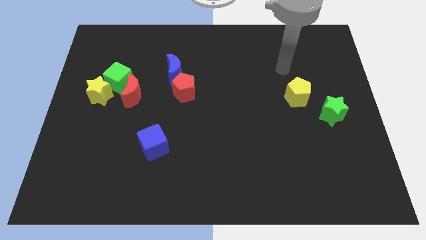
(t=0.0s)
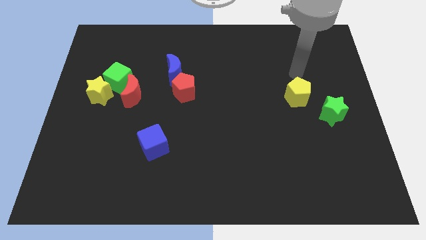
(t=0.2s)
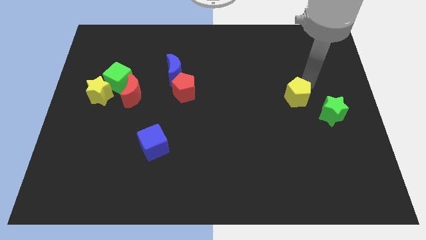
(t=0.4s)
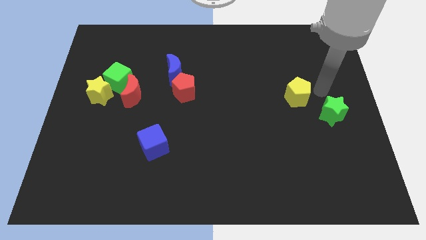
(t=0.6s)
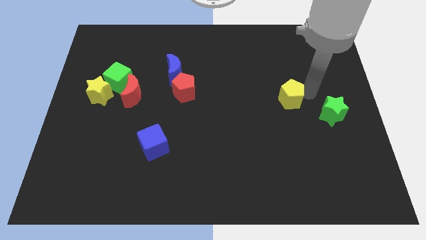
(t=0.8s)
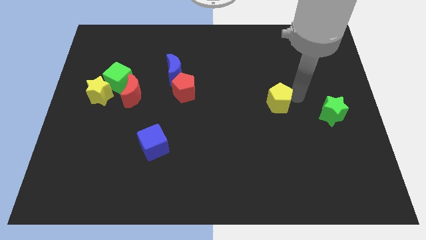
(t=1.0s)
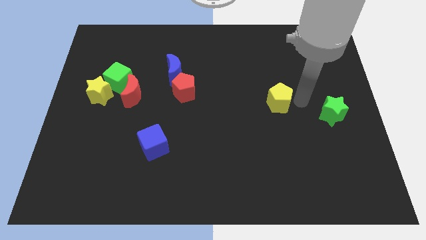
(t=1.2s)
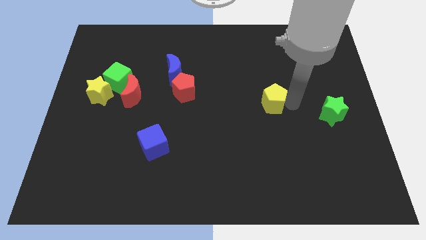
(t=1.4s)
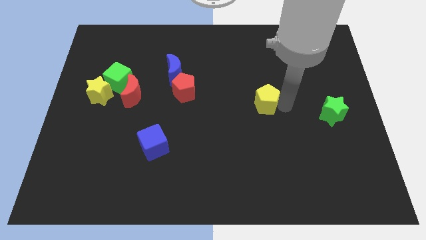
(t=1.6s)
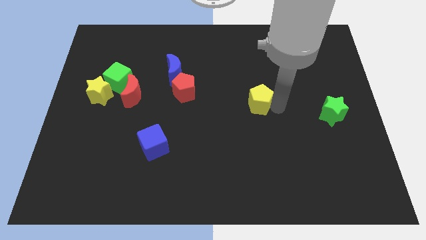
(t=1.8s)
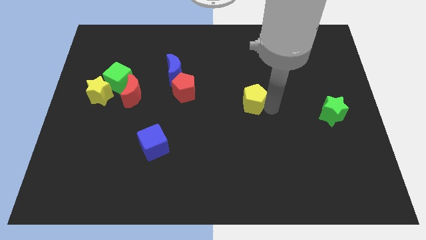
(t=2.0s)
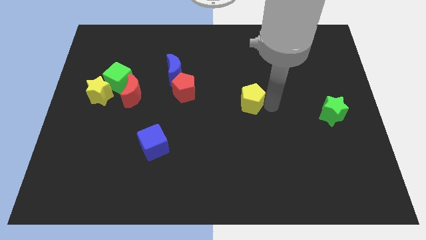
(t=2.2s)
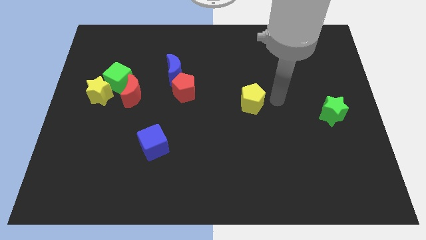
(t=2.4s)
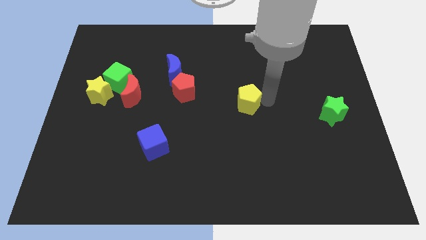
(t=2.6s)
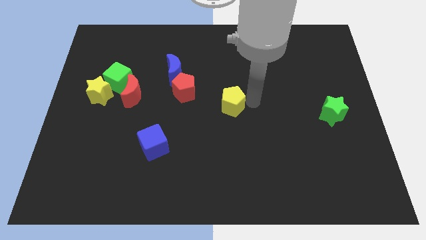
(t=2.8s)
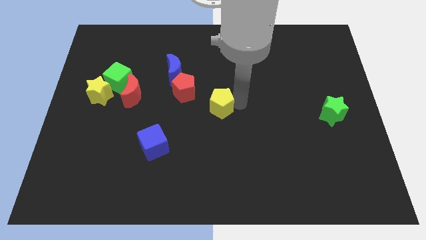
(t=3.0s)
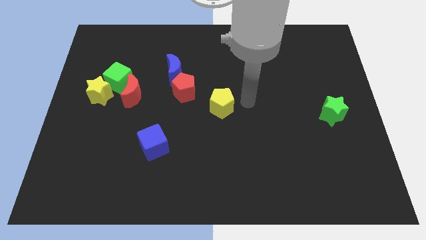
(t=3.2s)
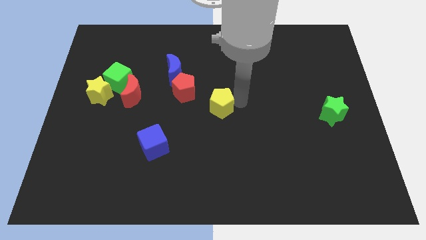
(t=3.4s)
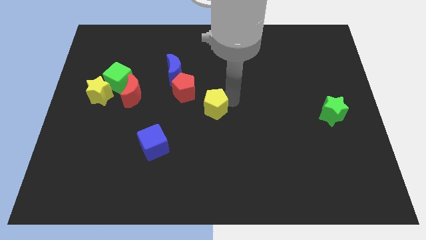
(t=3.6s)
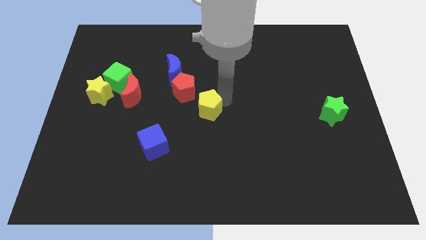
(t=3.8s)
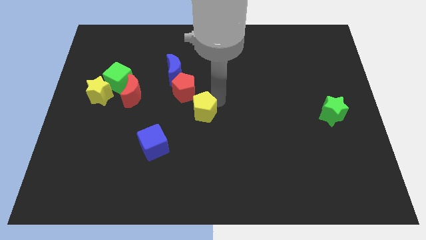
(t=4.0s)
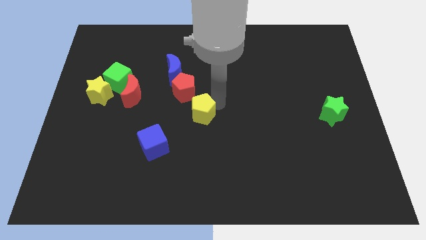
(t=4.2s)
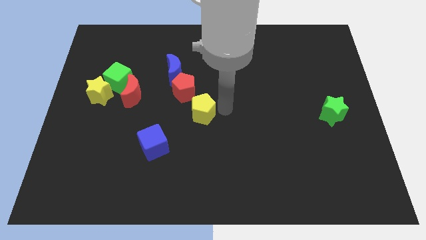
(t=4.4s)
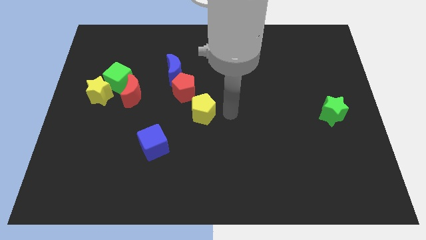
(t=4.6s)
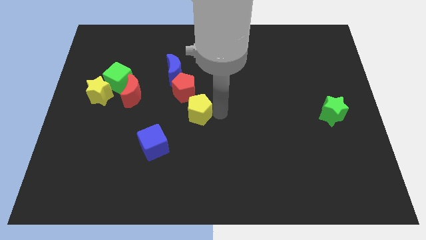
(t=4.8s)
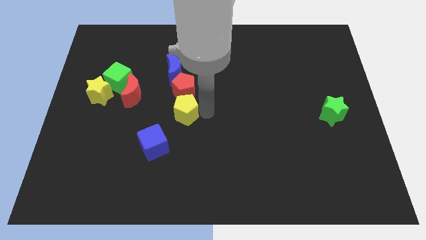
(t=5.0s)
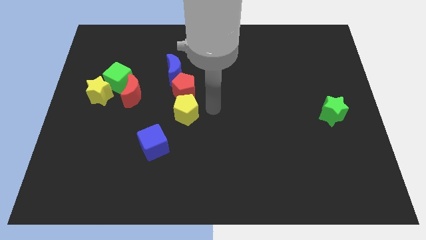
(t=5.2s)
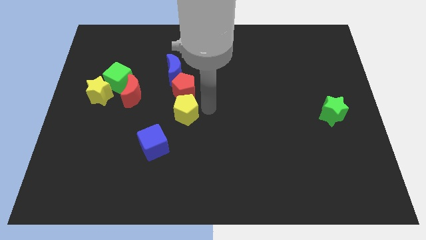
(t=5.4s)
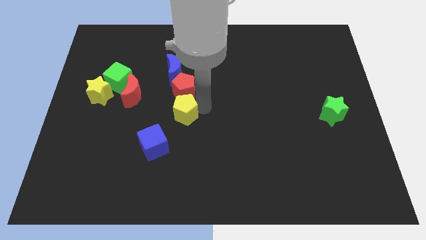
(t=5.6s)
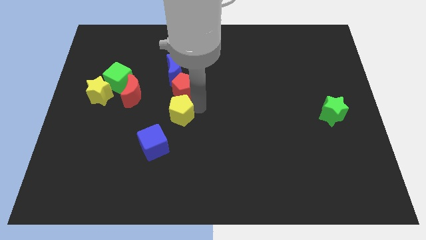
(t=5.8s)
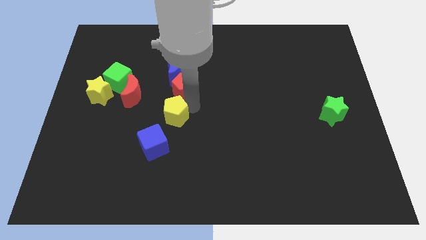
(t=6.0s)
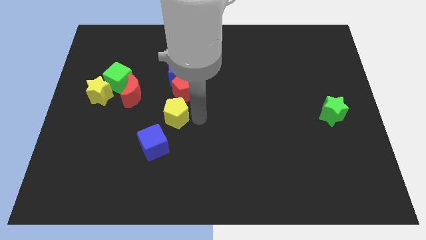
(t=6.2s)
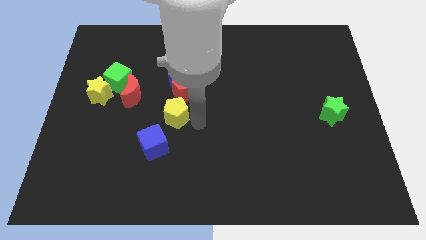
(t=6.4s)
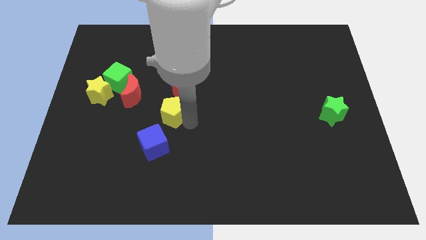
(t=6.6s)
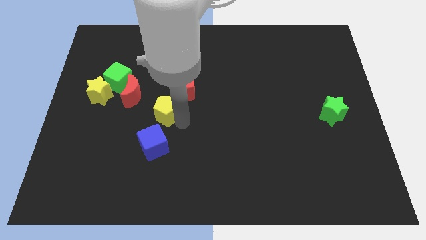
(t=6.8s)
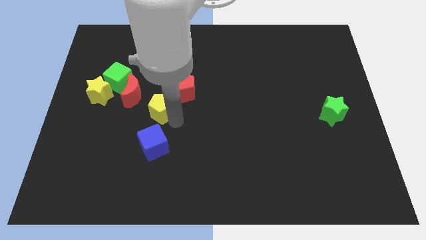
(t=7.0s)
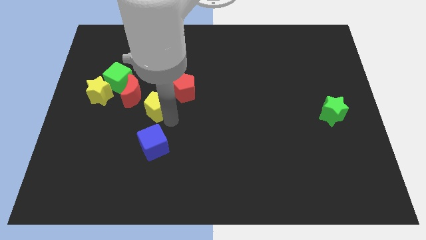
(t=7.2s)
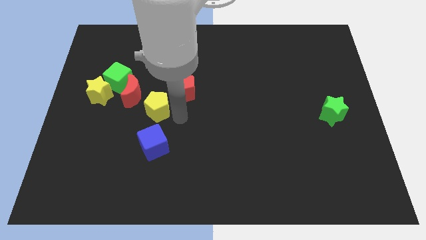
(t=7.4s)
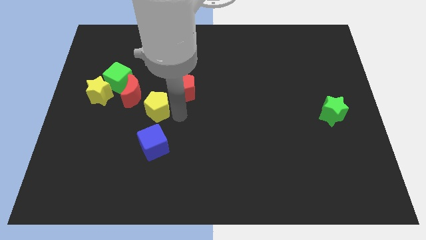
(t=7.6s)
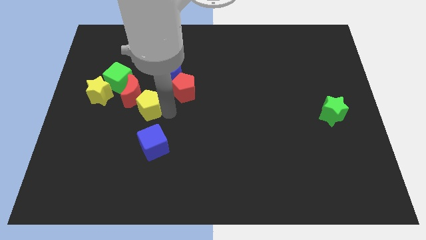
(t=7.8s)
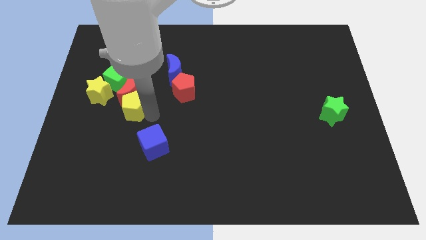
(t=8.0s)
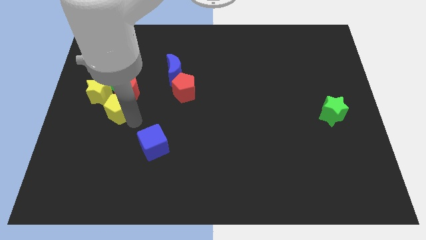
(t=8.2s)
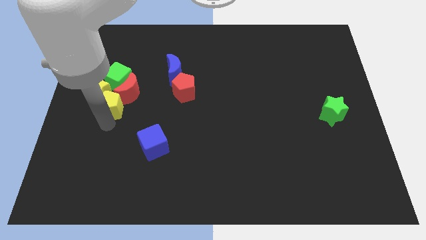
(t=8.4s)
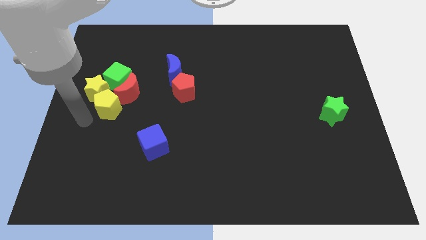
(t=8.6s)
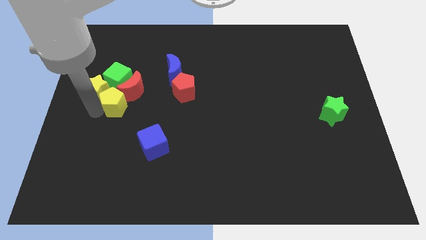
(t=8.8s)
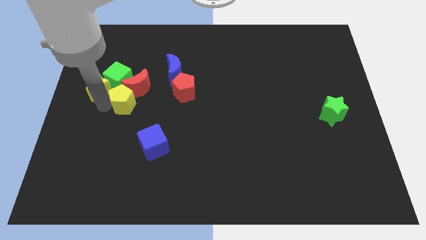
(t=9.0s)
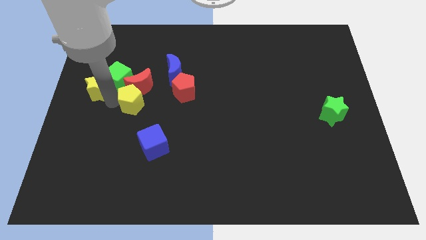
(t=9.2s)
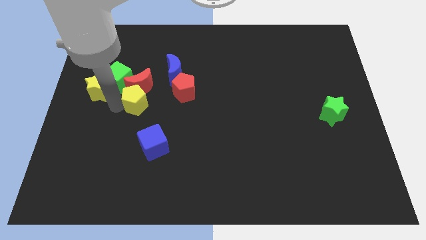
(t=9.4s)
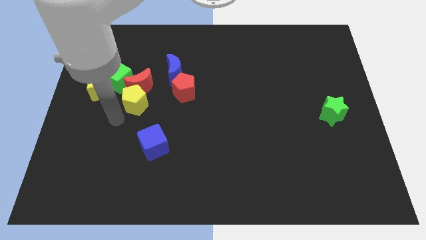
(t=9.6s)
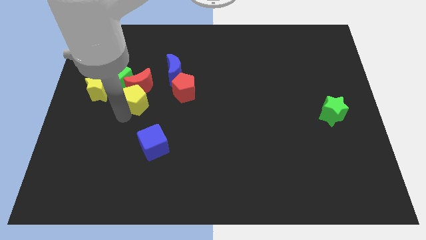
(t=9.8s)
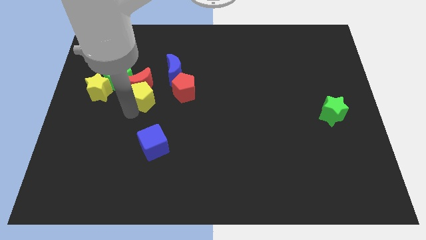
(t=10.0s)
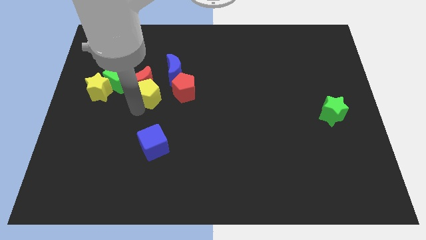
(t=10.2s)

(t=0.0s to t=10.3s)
push the yellow pentagon to the right of the green cube

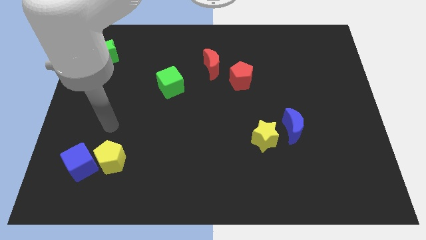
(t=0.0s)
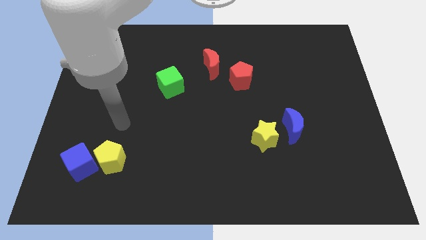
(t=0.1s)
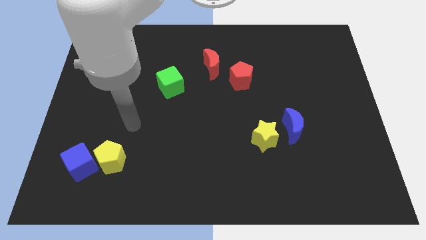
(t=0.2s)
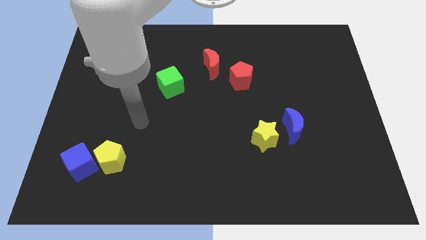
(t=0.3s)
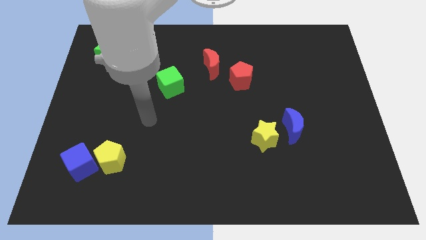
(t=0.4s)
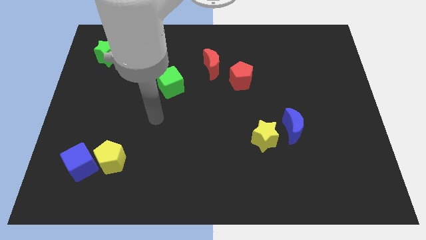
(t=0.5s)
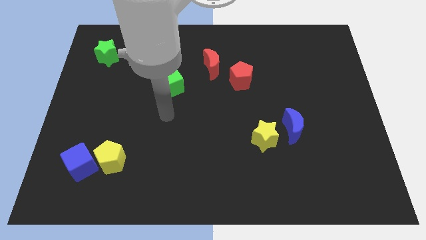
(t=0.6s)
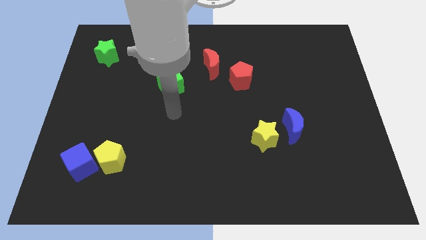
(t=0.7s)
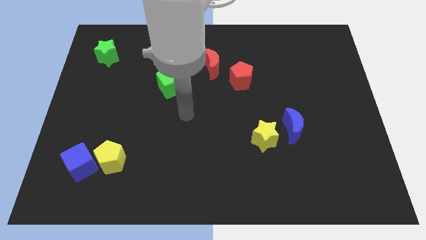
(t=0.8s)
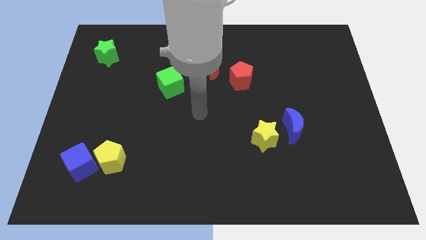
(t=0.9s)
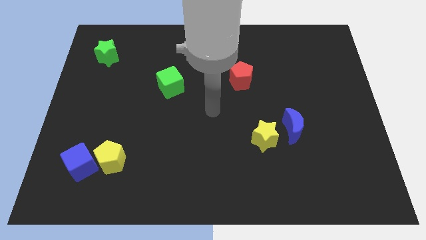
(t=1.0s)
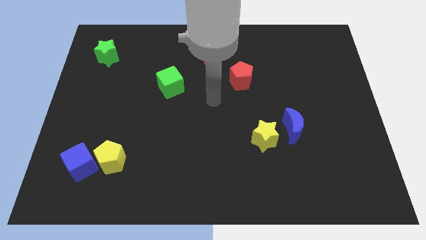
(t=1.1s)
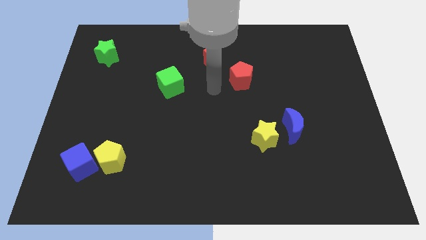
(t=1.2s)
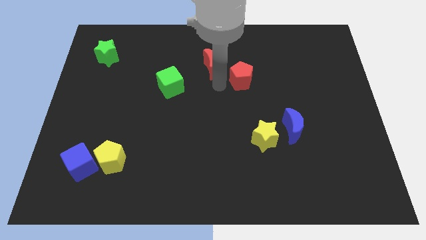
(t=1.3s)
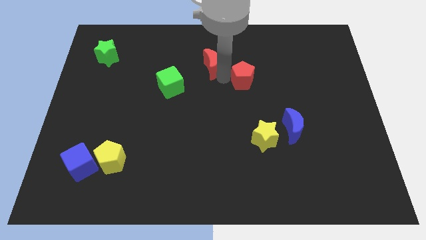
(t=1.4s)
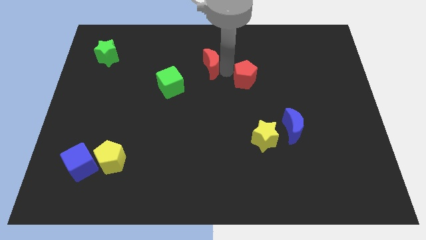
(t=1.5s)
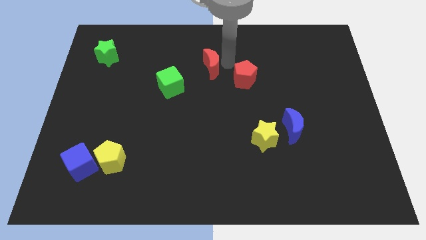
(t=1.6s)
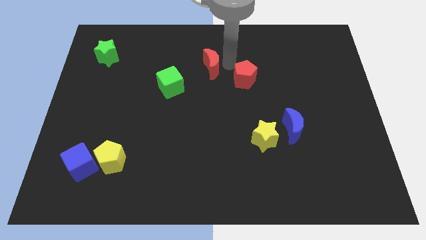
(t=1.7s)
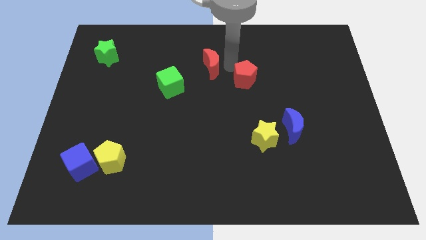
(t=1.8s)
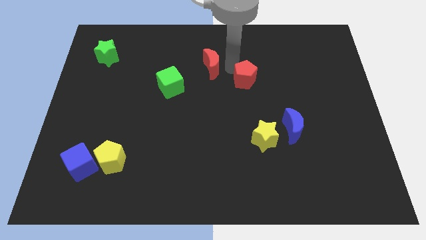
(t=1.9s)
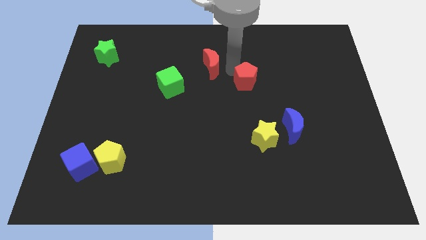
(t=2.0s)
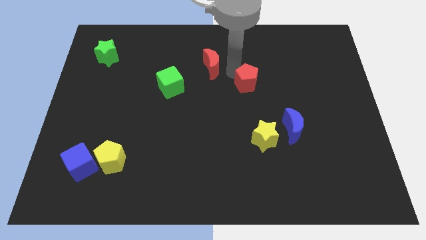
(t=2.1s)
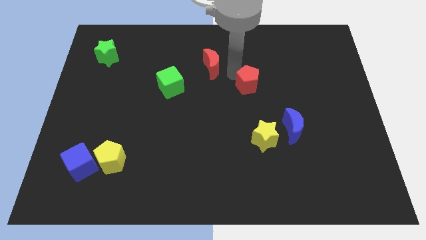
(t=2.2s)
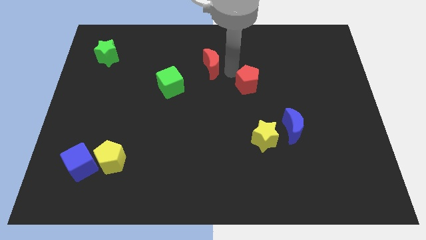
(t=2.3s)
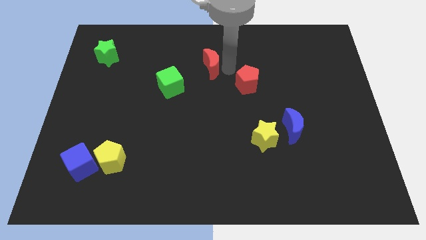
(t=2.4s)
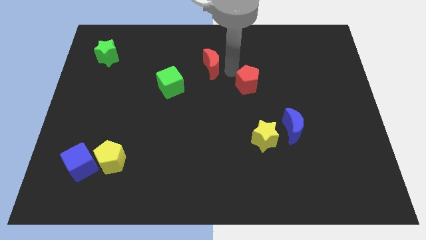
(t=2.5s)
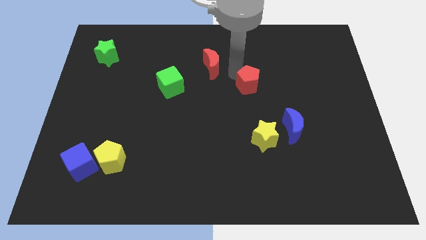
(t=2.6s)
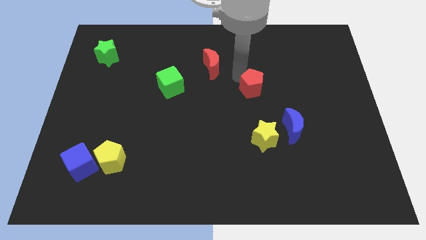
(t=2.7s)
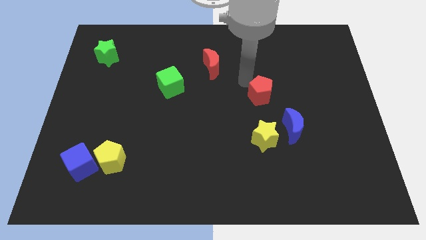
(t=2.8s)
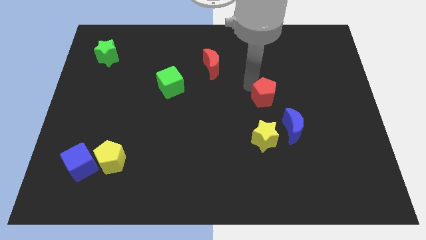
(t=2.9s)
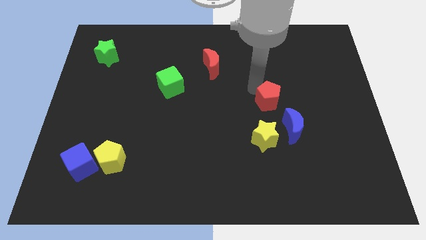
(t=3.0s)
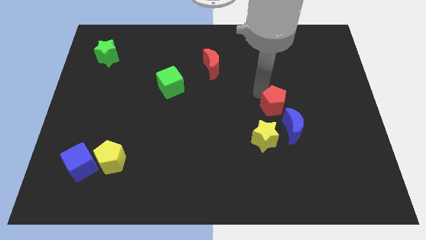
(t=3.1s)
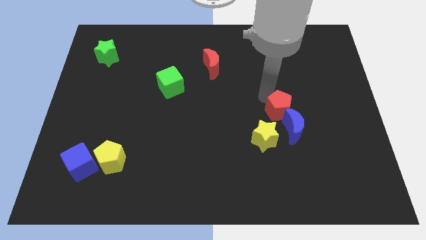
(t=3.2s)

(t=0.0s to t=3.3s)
push the red pentagon to the top right side of the yellow star
